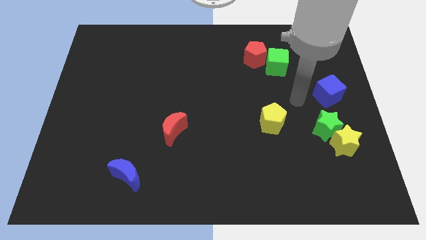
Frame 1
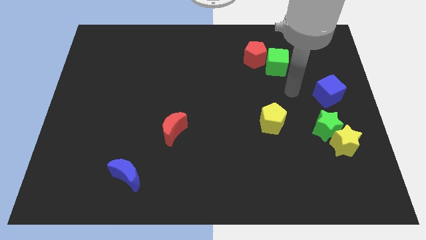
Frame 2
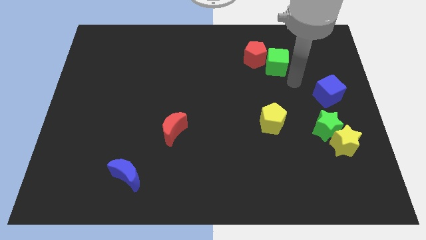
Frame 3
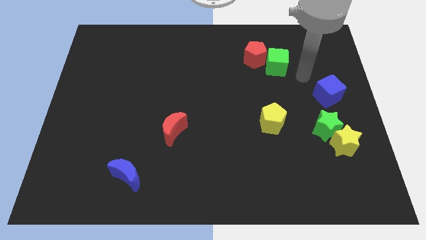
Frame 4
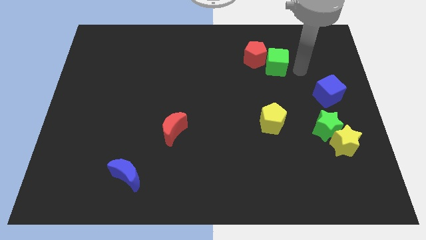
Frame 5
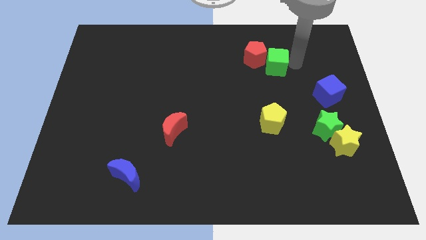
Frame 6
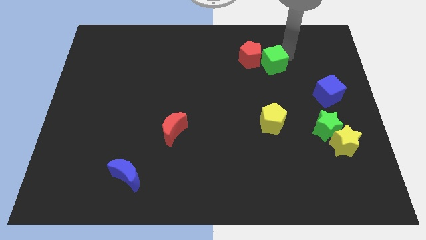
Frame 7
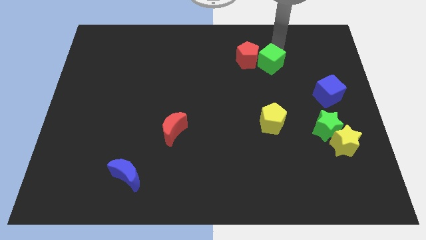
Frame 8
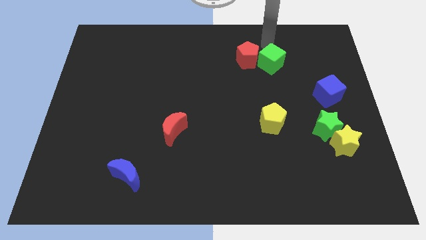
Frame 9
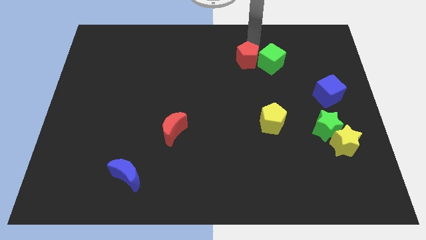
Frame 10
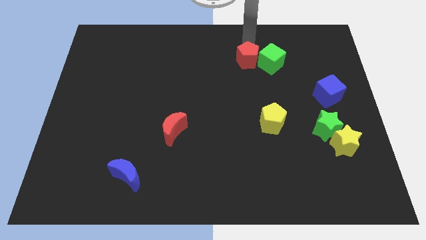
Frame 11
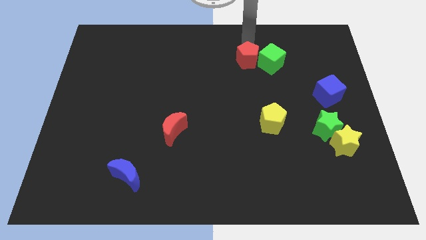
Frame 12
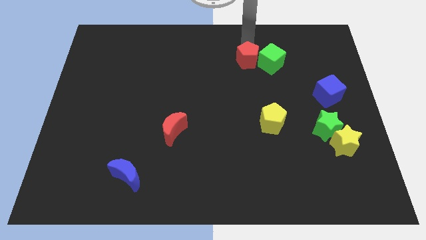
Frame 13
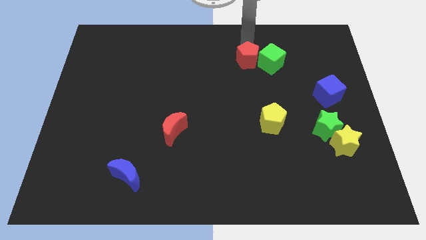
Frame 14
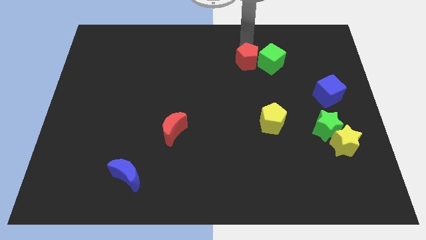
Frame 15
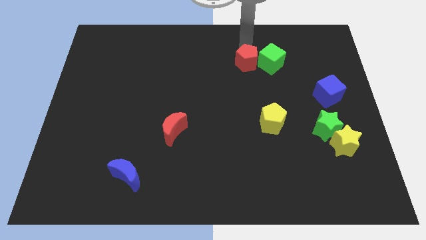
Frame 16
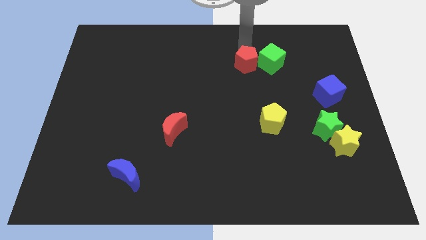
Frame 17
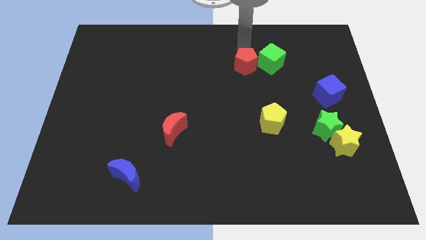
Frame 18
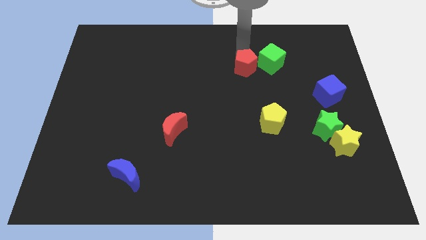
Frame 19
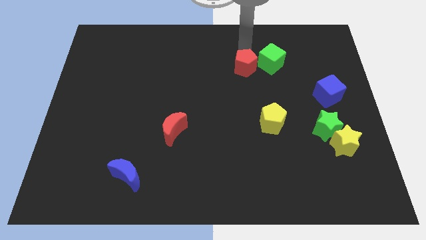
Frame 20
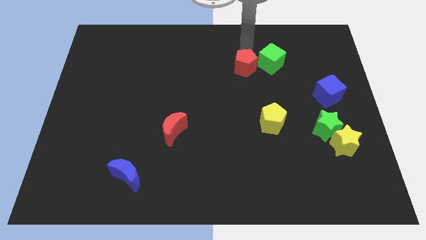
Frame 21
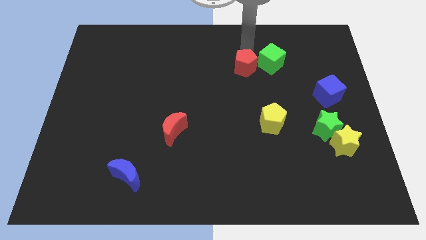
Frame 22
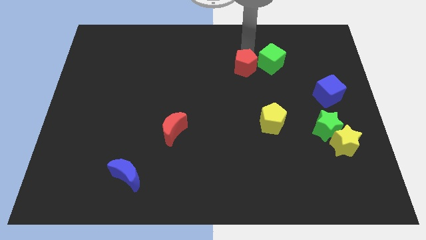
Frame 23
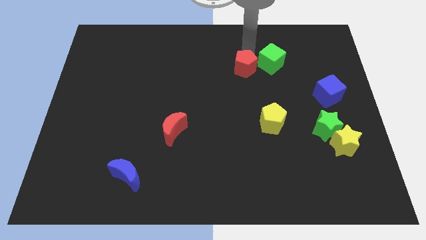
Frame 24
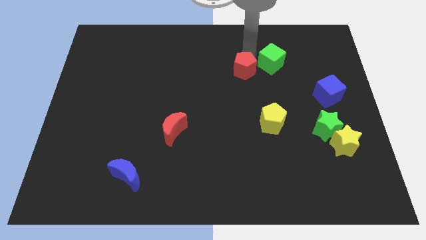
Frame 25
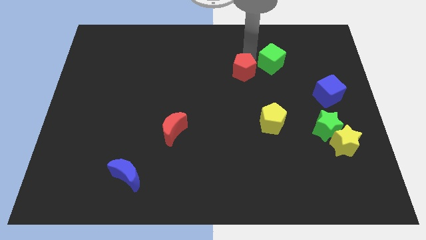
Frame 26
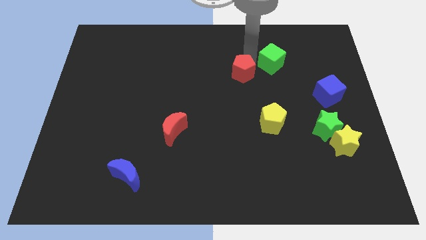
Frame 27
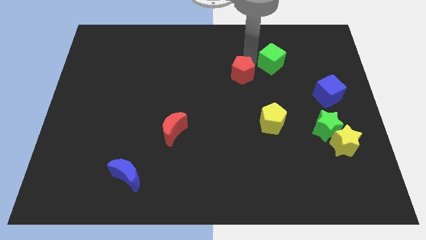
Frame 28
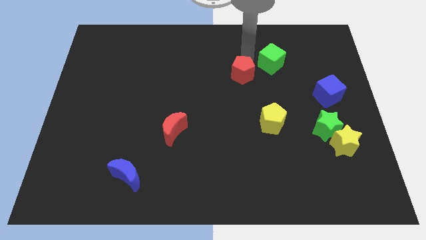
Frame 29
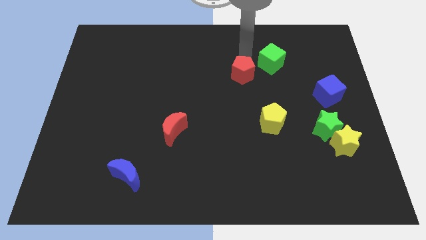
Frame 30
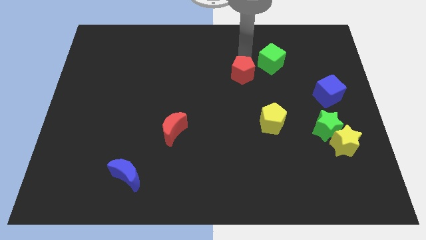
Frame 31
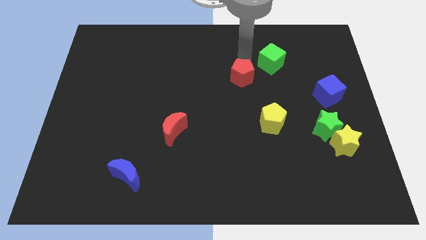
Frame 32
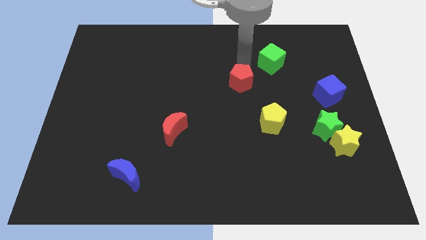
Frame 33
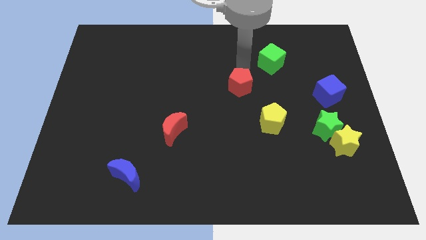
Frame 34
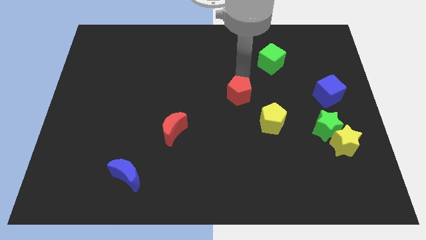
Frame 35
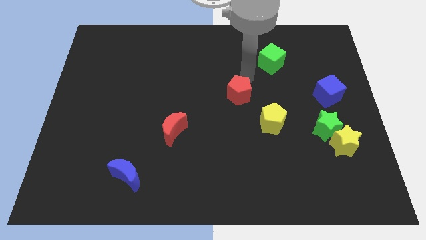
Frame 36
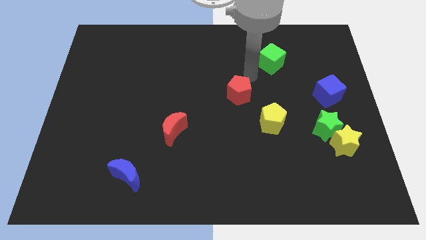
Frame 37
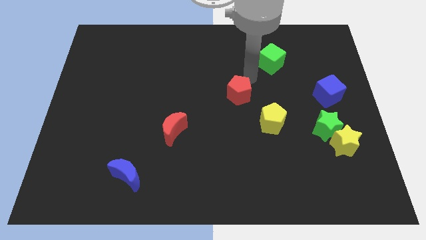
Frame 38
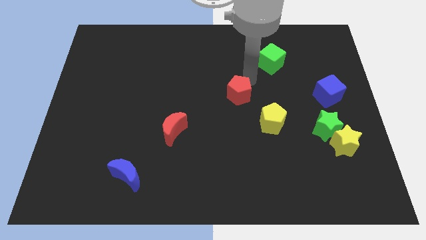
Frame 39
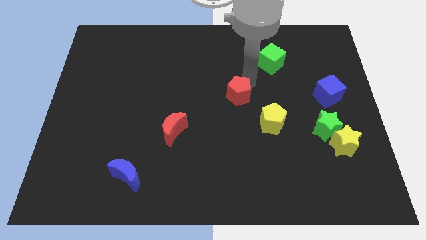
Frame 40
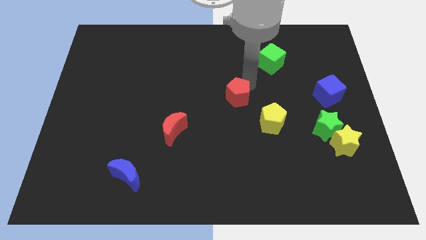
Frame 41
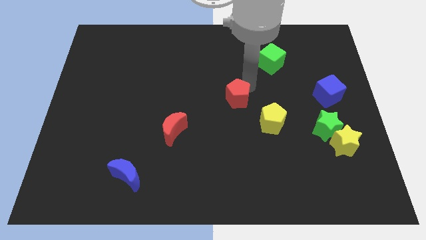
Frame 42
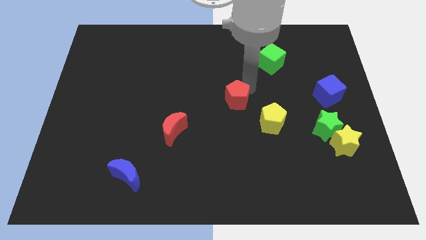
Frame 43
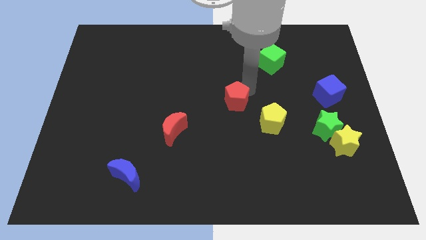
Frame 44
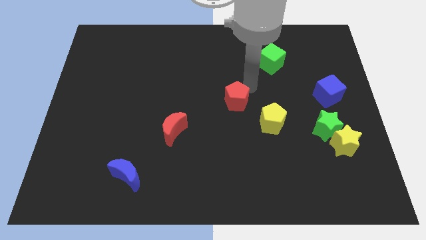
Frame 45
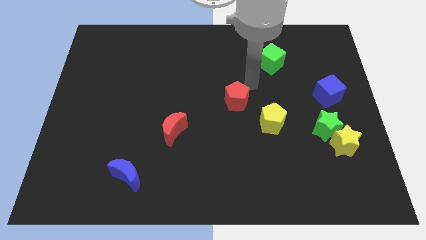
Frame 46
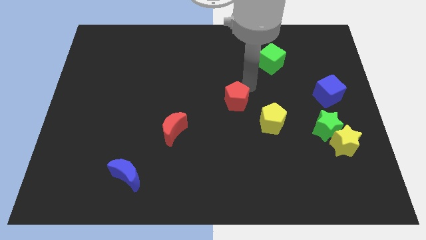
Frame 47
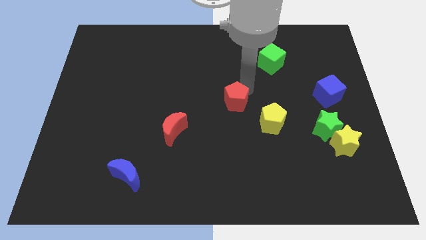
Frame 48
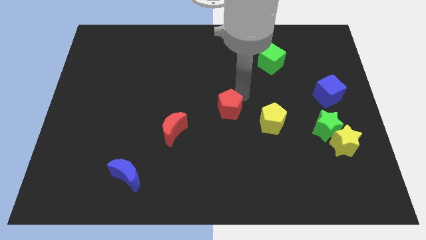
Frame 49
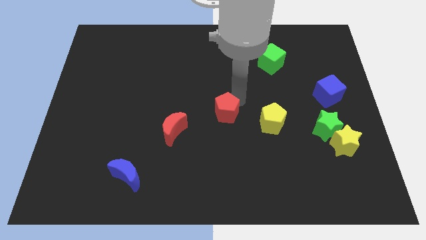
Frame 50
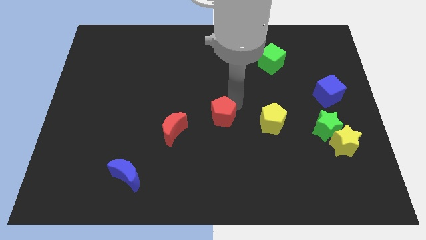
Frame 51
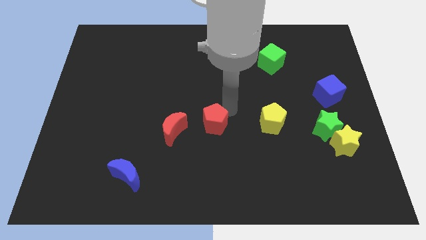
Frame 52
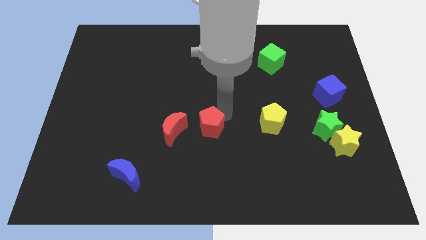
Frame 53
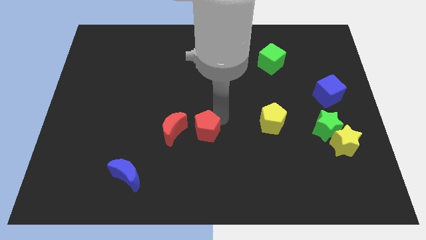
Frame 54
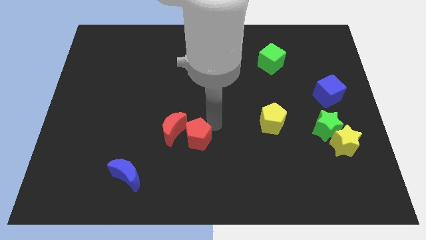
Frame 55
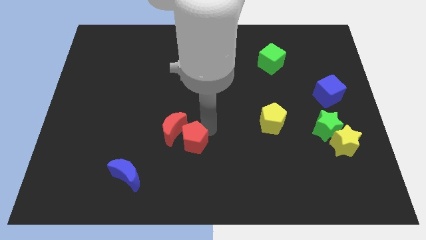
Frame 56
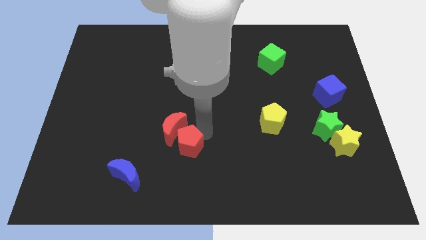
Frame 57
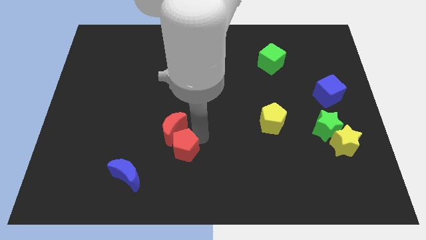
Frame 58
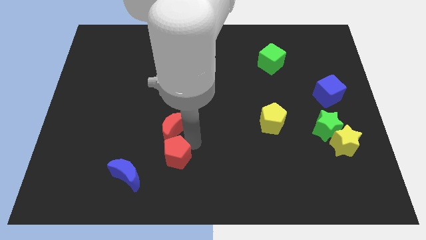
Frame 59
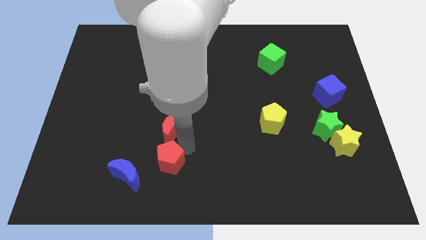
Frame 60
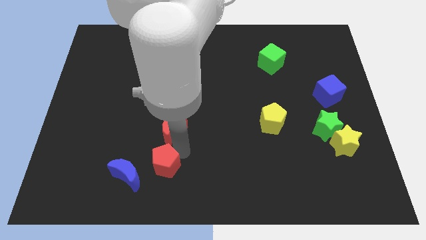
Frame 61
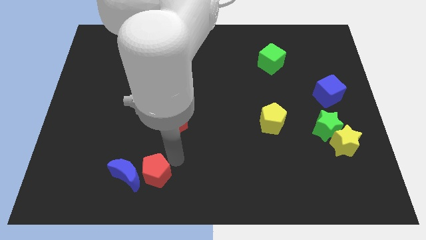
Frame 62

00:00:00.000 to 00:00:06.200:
move the red pentagon to the blue moon
